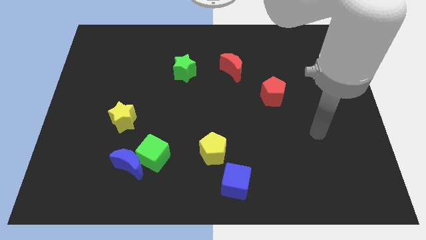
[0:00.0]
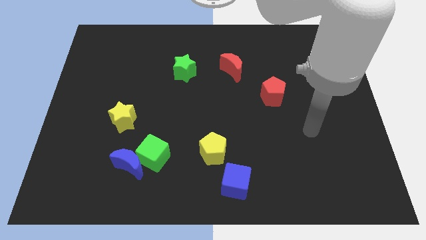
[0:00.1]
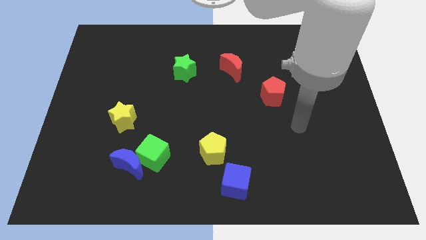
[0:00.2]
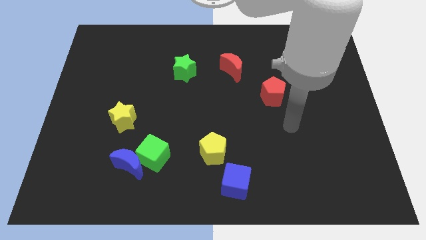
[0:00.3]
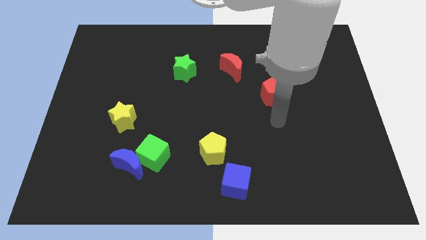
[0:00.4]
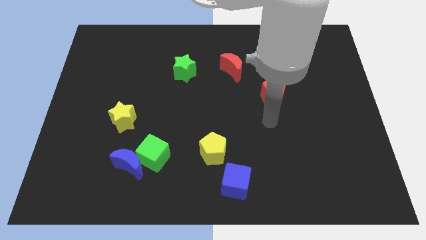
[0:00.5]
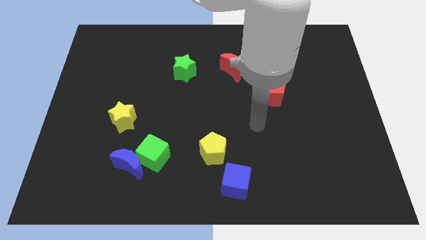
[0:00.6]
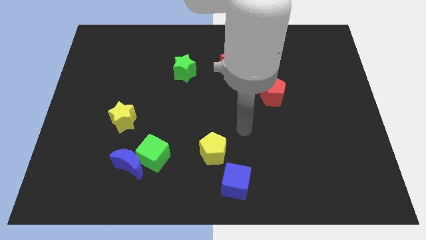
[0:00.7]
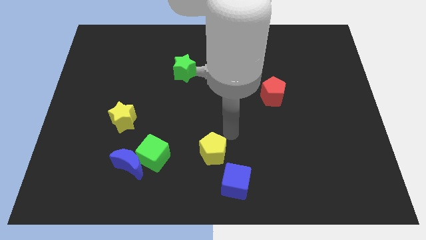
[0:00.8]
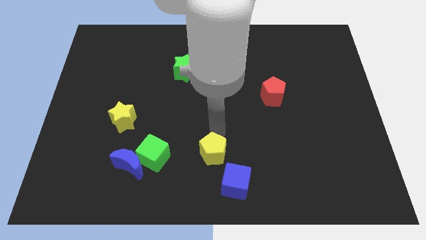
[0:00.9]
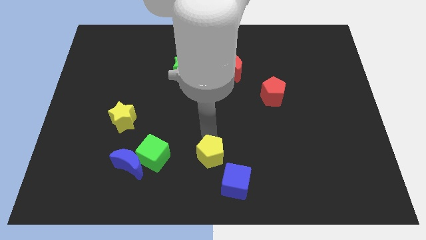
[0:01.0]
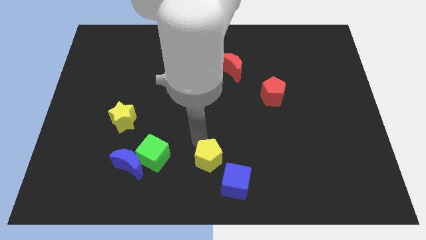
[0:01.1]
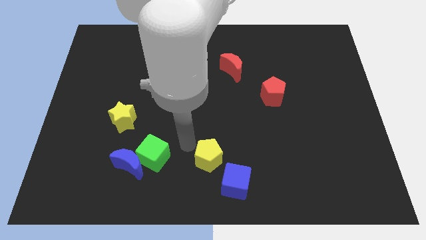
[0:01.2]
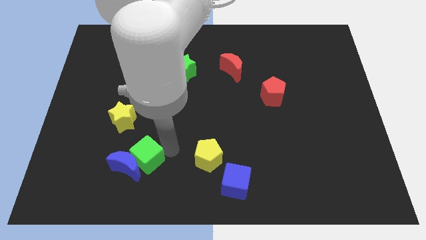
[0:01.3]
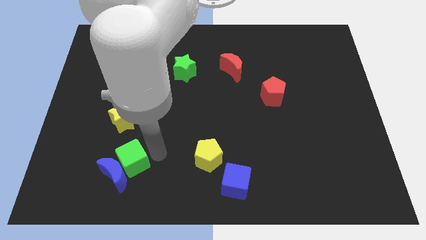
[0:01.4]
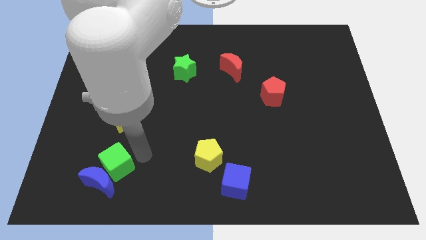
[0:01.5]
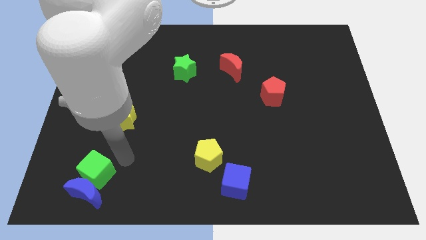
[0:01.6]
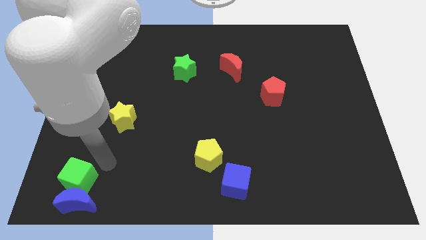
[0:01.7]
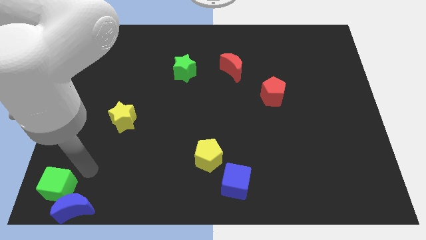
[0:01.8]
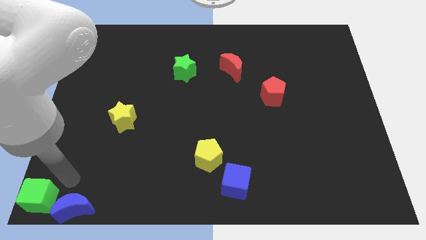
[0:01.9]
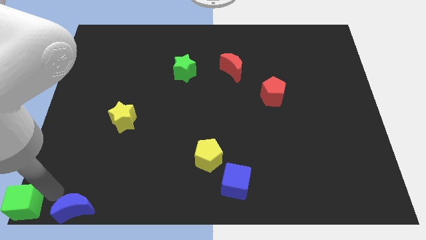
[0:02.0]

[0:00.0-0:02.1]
pull the blue moon apart from the green cube

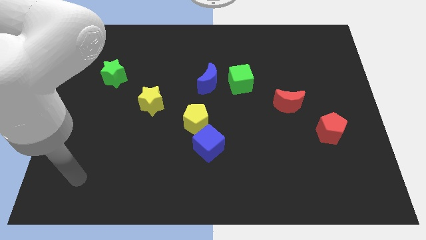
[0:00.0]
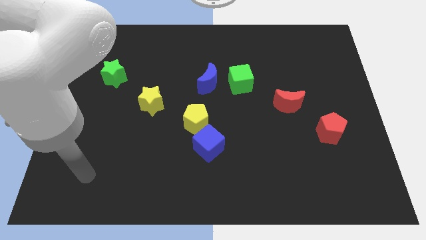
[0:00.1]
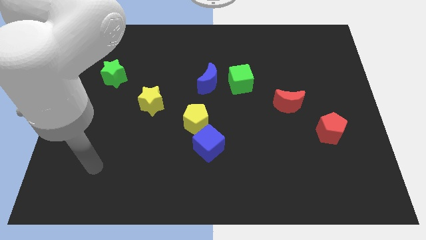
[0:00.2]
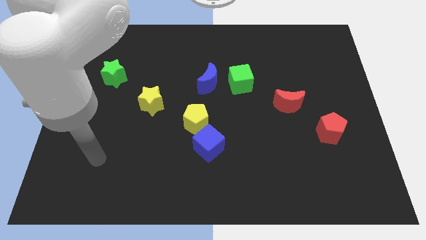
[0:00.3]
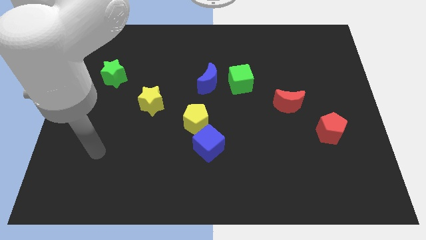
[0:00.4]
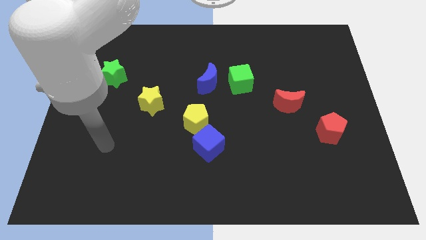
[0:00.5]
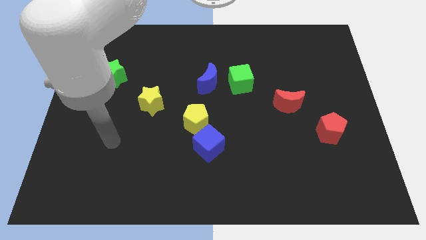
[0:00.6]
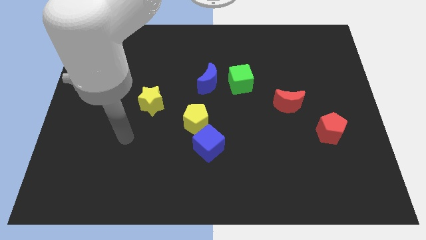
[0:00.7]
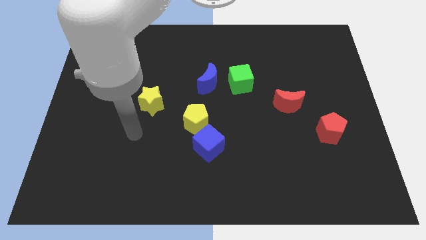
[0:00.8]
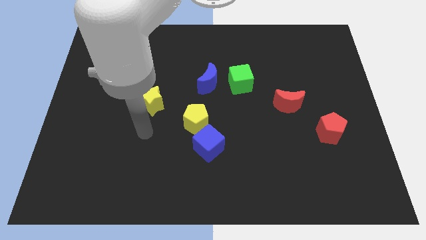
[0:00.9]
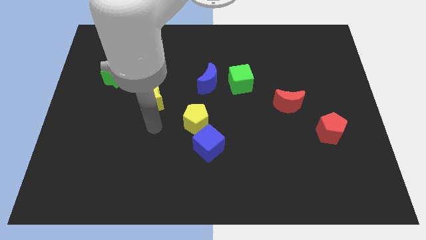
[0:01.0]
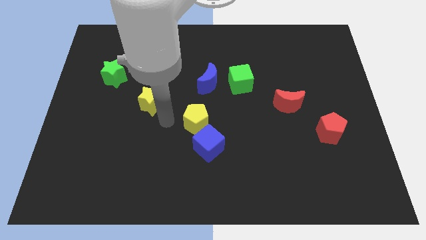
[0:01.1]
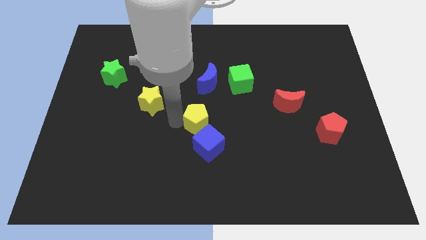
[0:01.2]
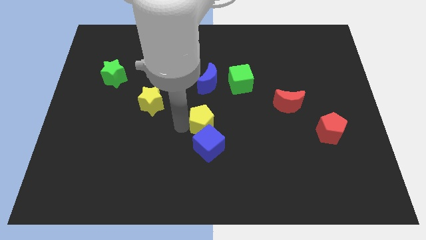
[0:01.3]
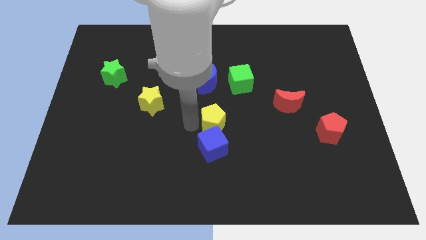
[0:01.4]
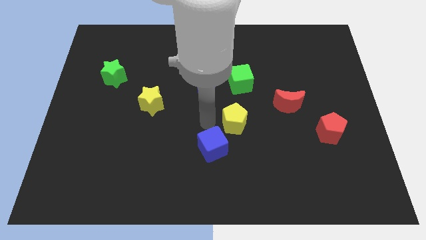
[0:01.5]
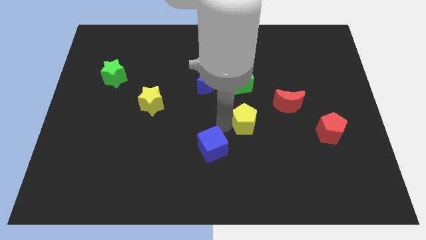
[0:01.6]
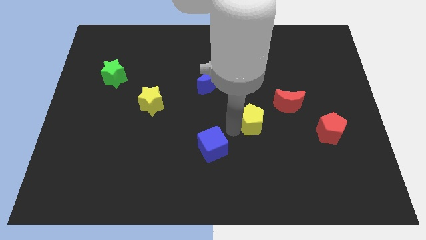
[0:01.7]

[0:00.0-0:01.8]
move the blue cube away from the yellow pentagon

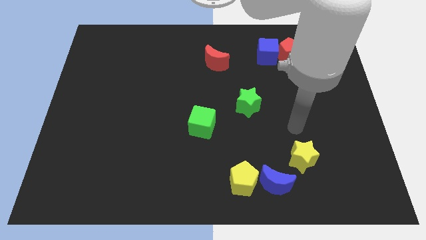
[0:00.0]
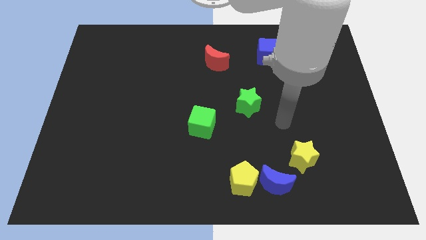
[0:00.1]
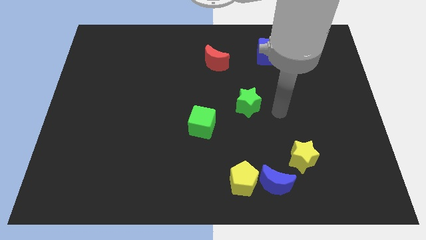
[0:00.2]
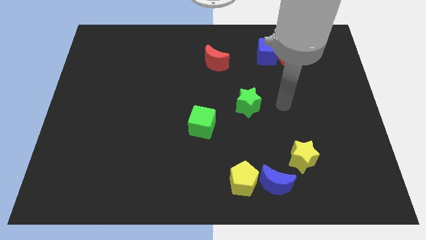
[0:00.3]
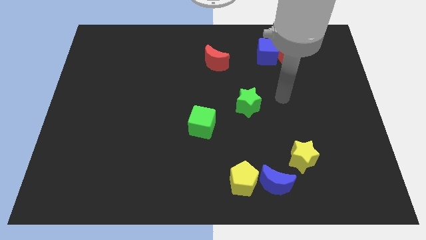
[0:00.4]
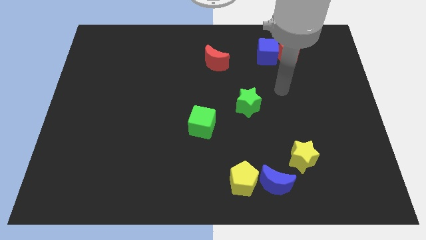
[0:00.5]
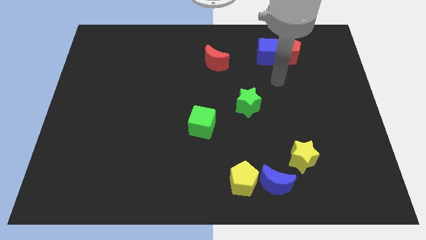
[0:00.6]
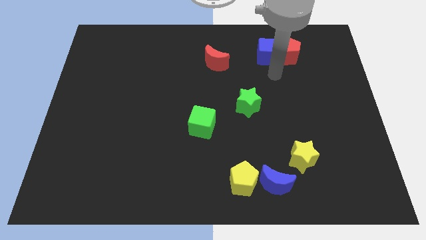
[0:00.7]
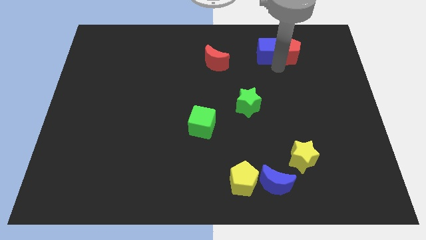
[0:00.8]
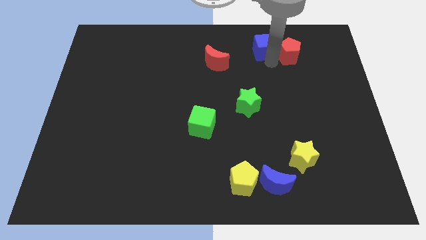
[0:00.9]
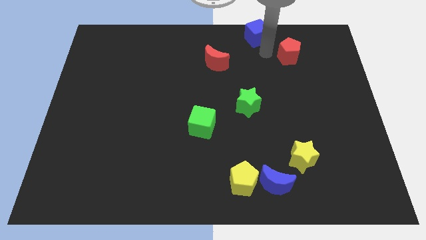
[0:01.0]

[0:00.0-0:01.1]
separate the red pentagon from the blue cube

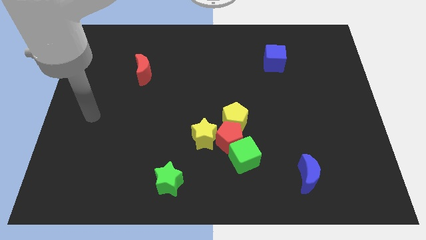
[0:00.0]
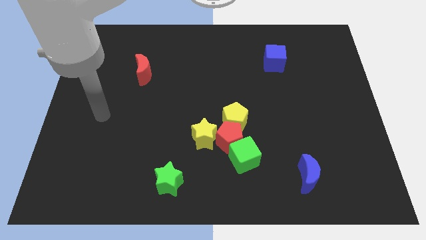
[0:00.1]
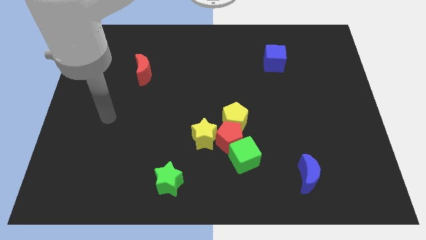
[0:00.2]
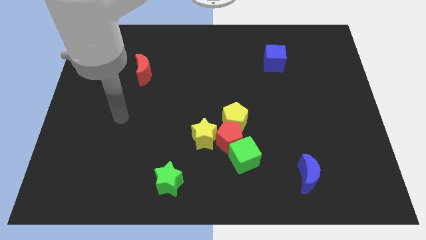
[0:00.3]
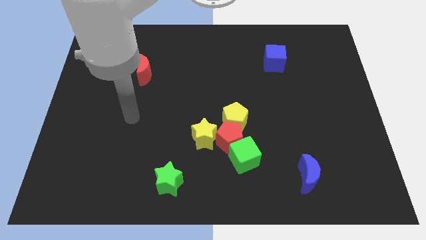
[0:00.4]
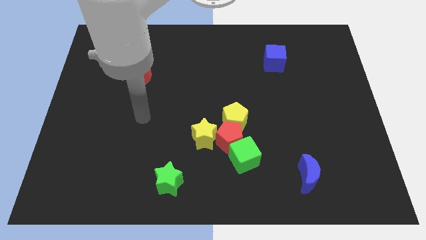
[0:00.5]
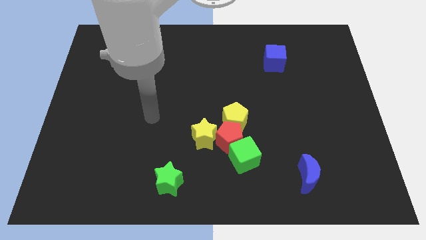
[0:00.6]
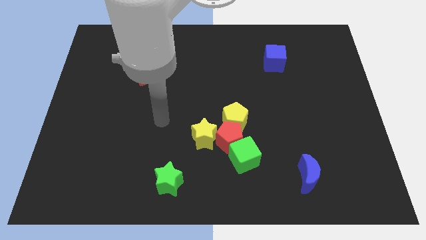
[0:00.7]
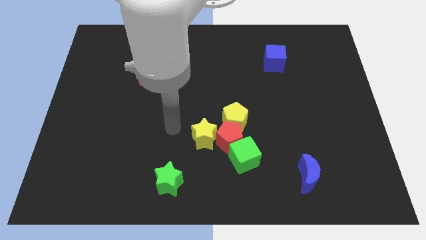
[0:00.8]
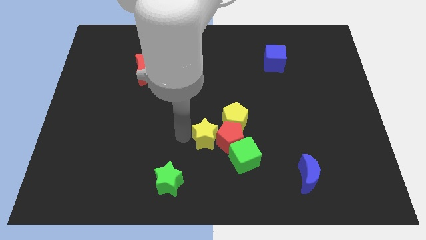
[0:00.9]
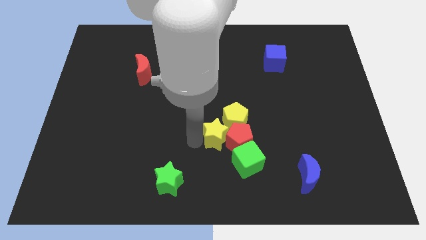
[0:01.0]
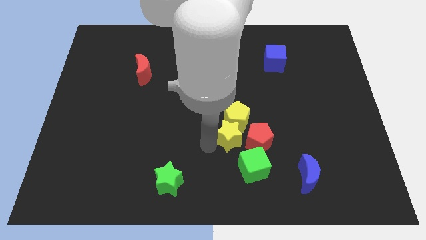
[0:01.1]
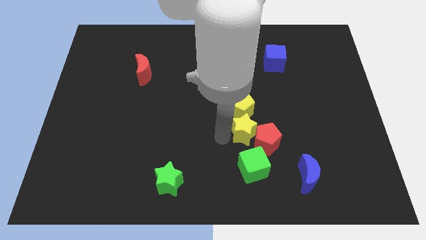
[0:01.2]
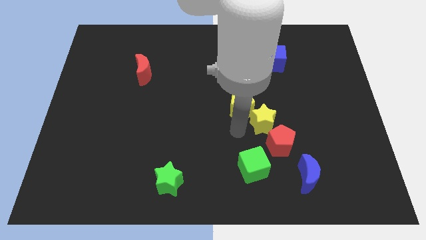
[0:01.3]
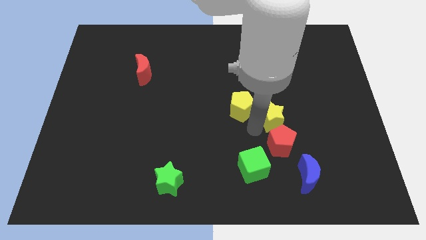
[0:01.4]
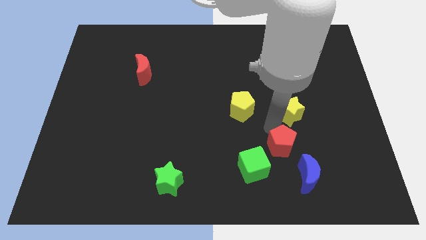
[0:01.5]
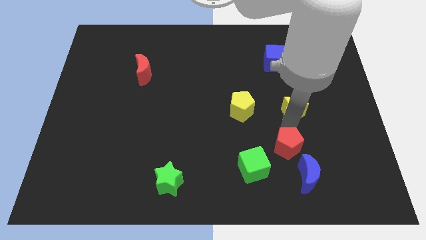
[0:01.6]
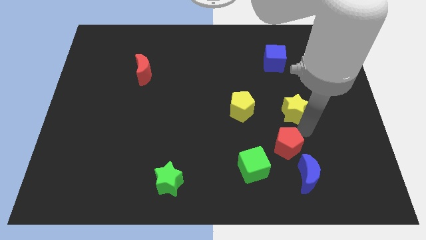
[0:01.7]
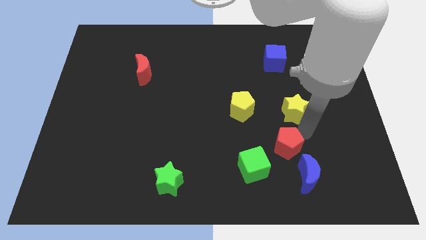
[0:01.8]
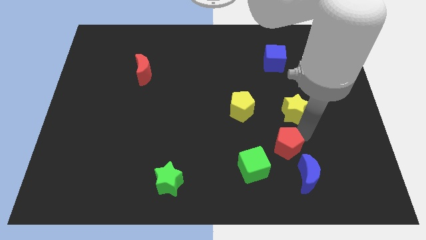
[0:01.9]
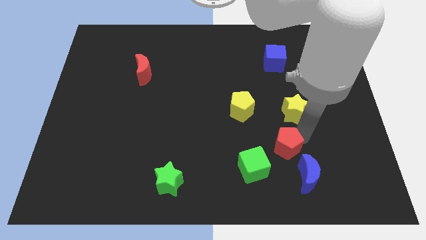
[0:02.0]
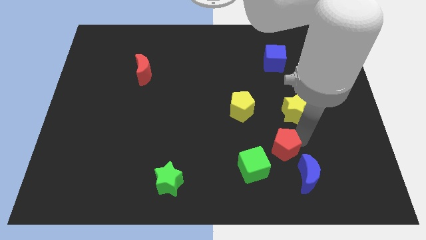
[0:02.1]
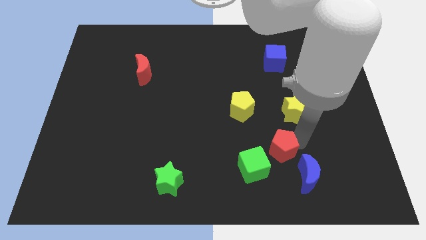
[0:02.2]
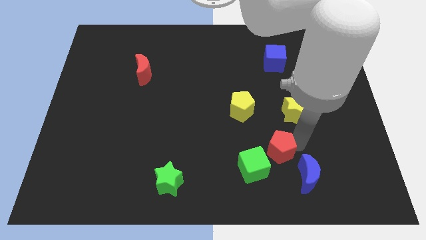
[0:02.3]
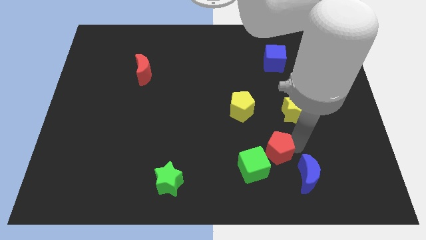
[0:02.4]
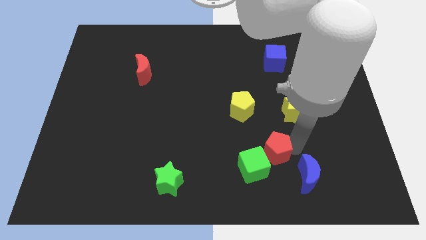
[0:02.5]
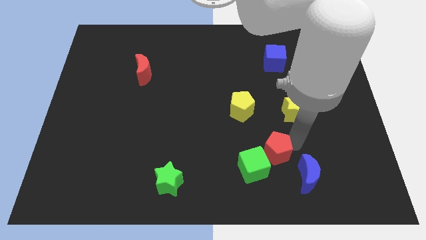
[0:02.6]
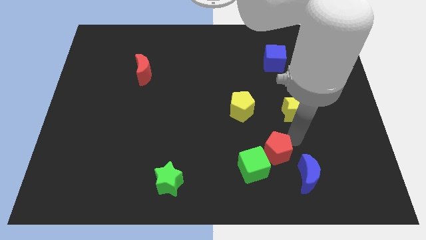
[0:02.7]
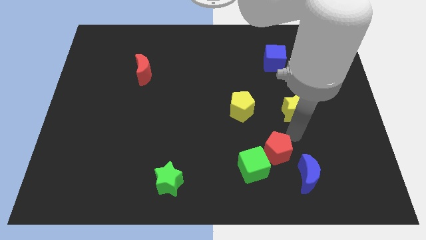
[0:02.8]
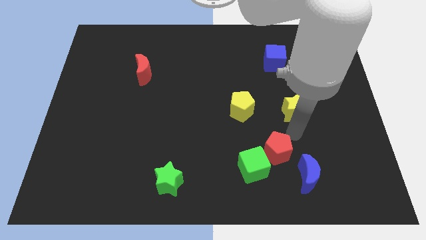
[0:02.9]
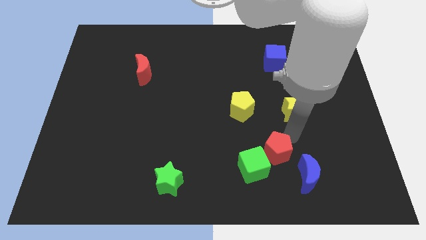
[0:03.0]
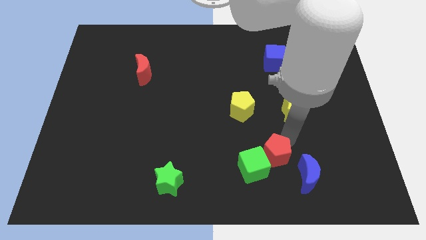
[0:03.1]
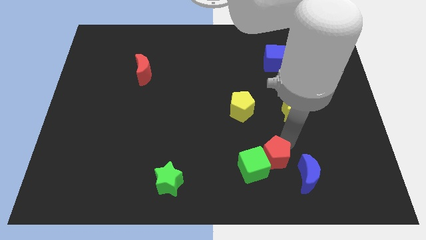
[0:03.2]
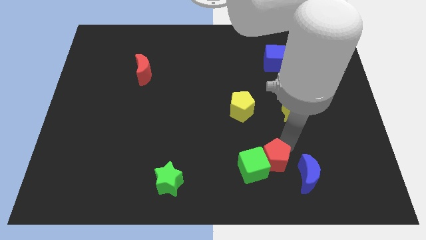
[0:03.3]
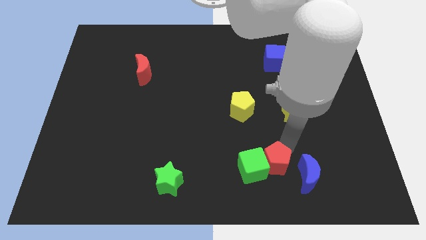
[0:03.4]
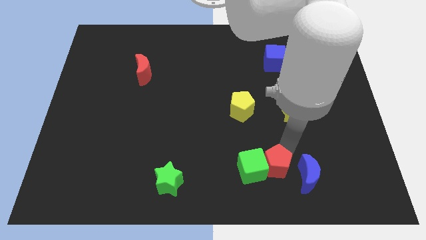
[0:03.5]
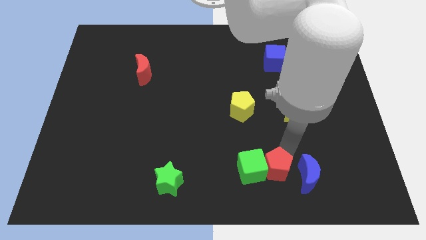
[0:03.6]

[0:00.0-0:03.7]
pull the red pentagon apart from the group

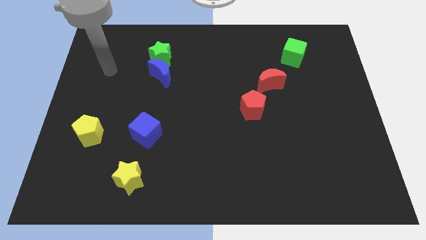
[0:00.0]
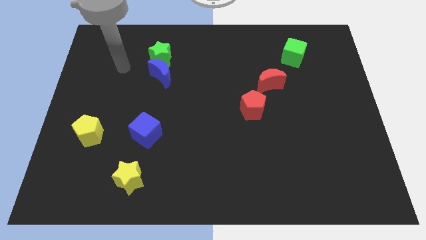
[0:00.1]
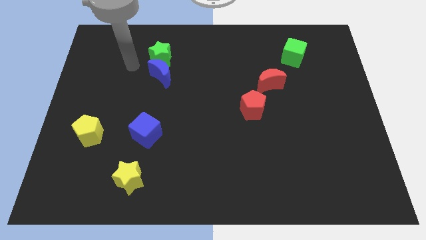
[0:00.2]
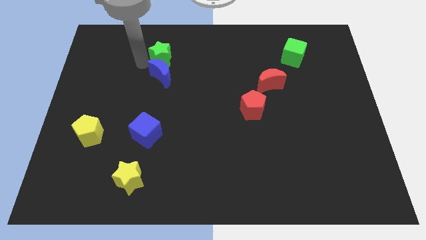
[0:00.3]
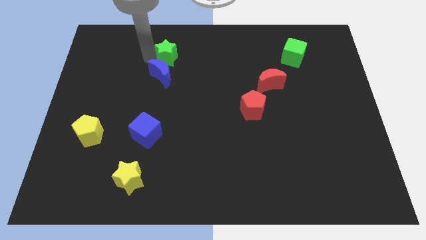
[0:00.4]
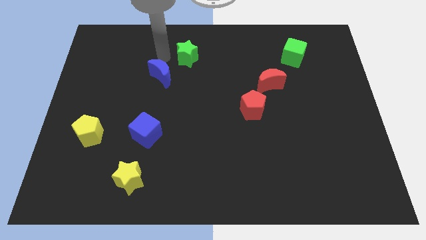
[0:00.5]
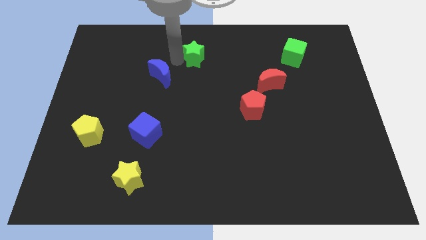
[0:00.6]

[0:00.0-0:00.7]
move the blue moon away from the green star
